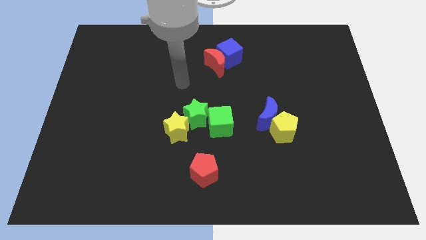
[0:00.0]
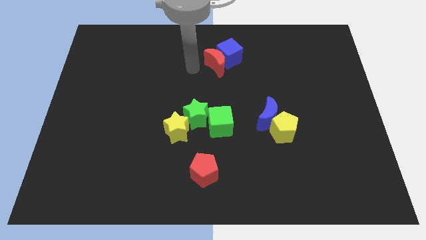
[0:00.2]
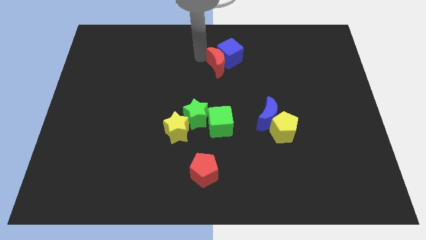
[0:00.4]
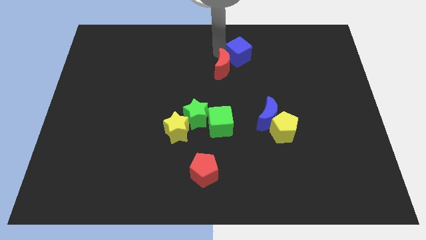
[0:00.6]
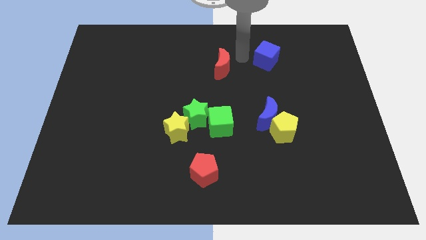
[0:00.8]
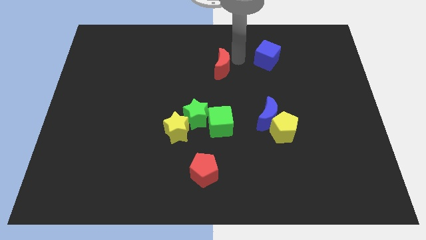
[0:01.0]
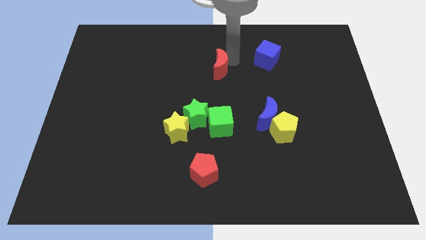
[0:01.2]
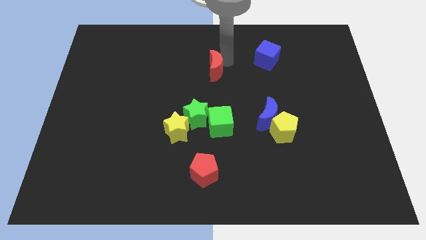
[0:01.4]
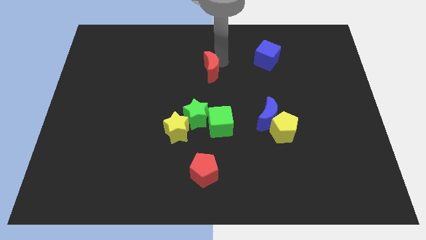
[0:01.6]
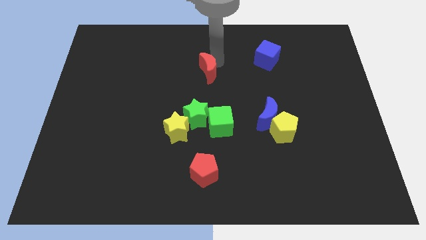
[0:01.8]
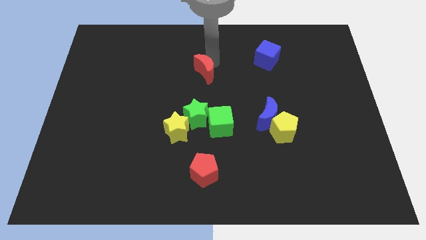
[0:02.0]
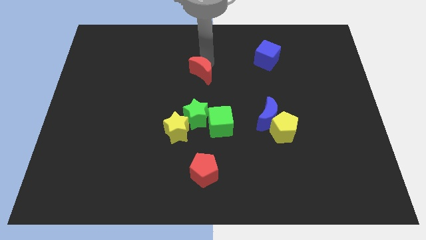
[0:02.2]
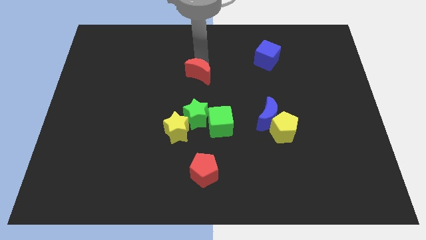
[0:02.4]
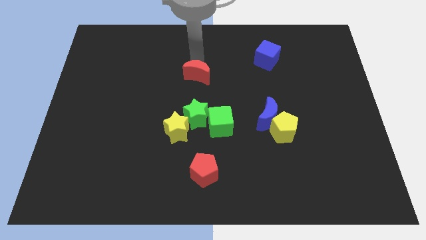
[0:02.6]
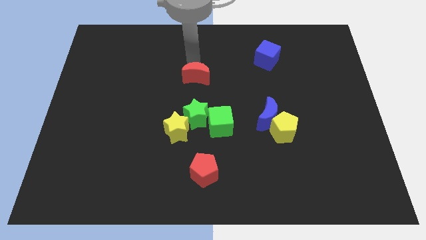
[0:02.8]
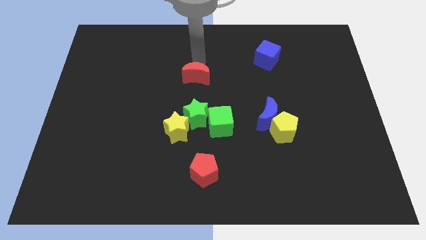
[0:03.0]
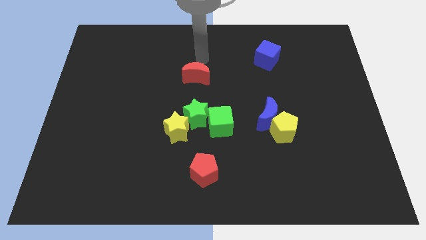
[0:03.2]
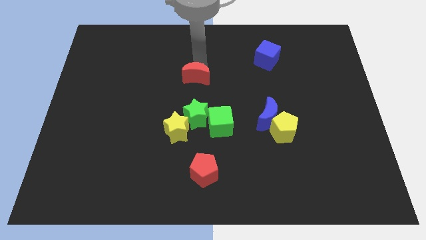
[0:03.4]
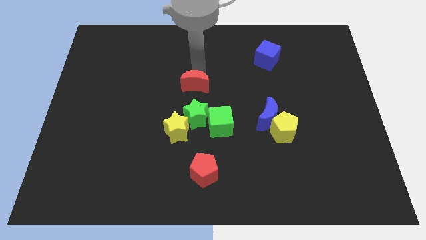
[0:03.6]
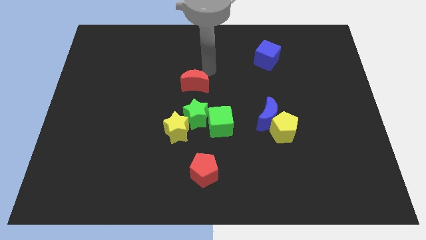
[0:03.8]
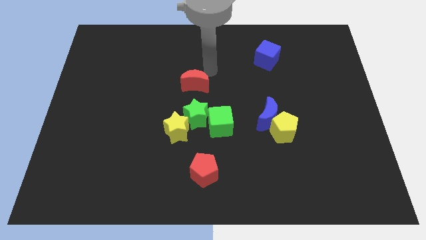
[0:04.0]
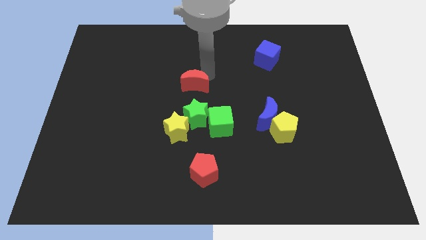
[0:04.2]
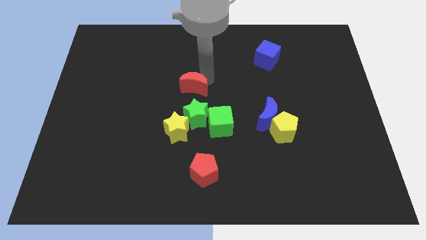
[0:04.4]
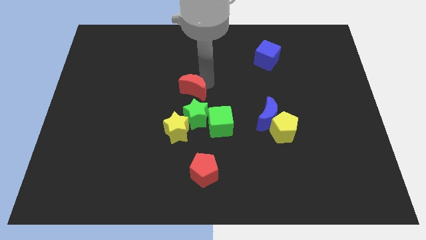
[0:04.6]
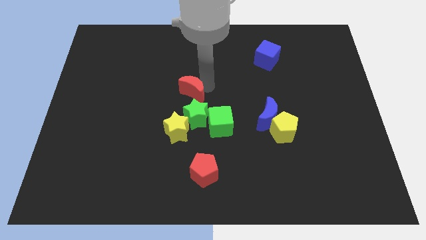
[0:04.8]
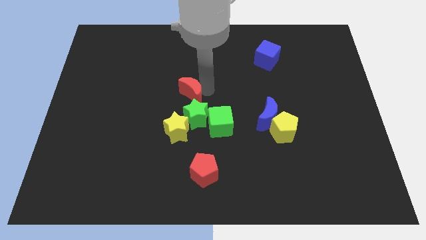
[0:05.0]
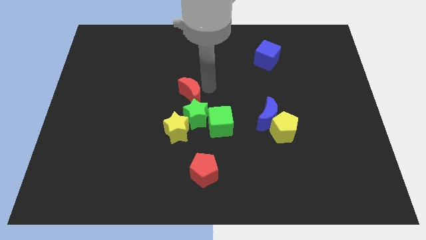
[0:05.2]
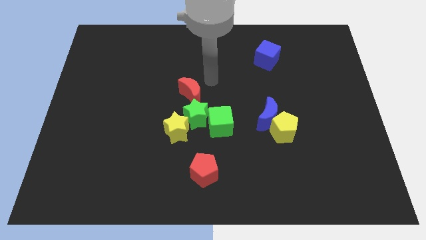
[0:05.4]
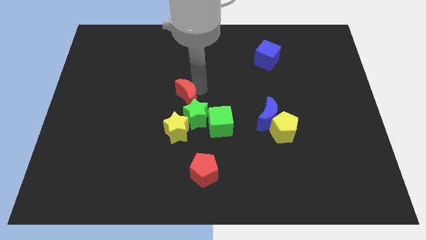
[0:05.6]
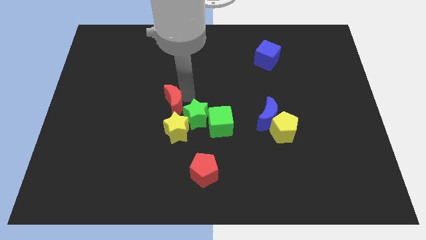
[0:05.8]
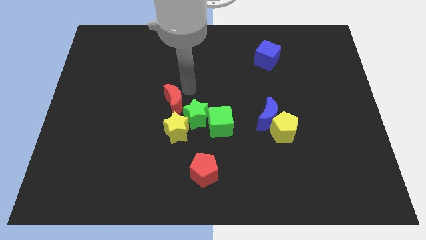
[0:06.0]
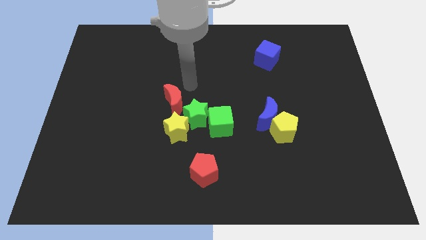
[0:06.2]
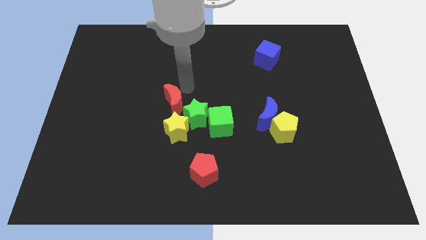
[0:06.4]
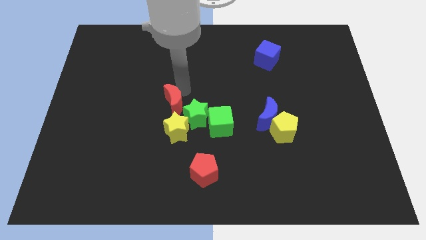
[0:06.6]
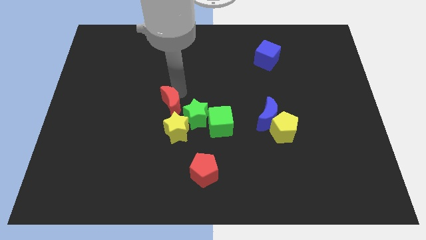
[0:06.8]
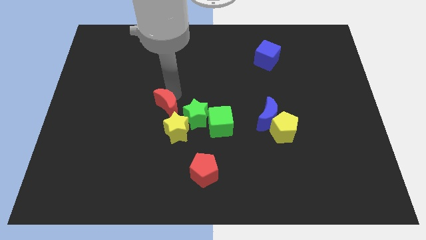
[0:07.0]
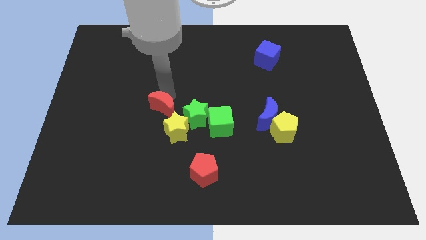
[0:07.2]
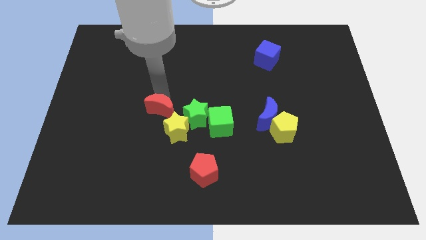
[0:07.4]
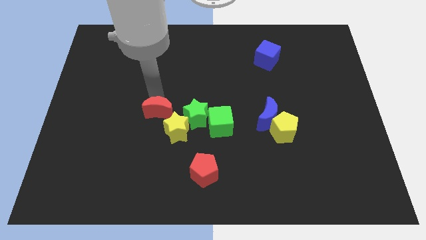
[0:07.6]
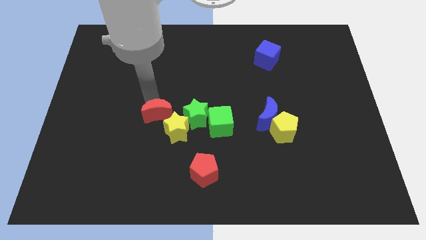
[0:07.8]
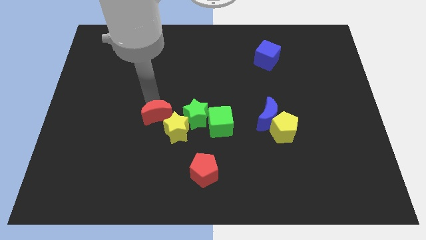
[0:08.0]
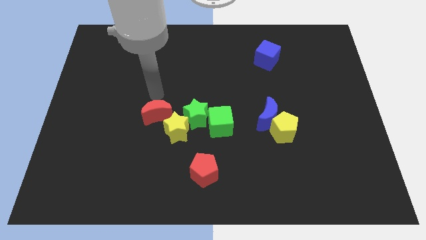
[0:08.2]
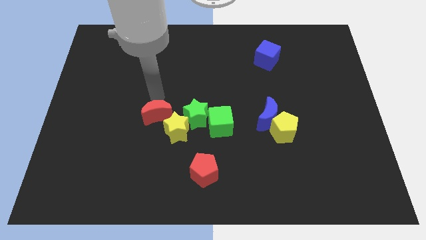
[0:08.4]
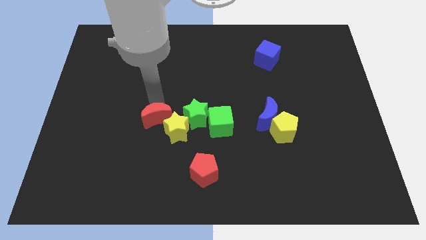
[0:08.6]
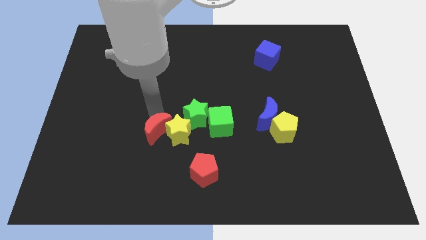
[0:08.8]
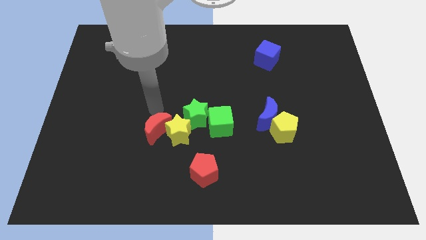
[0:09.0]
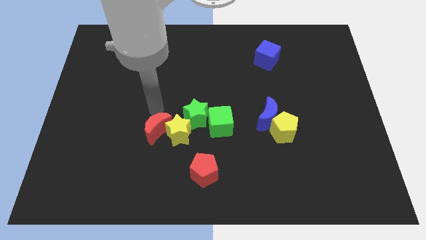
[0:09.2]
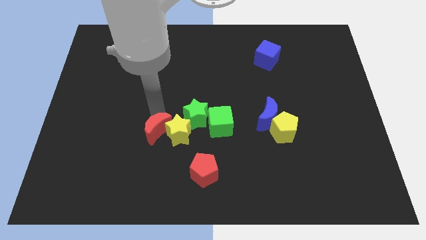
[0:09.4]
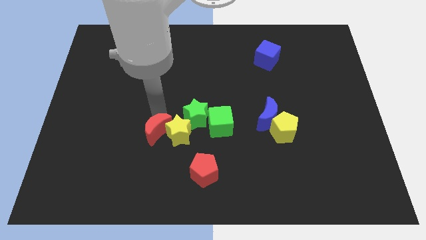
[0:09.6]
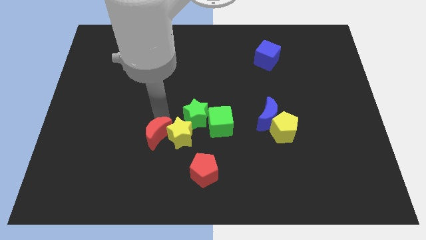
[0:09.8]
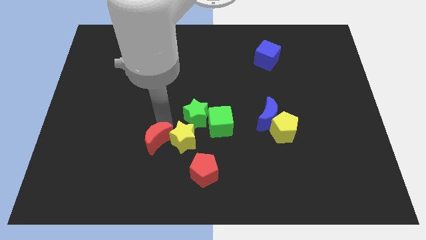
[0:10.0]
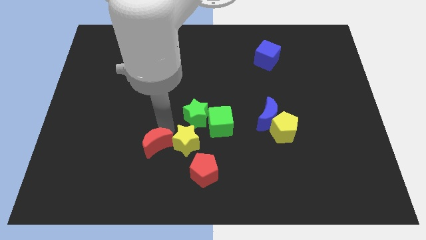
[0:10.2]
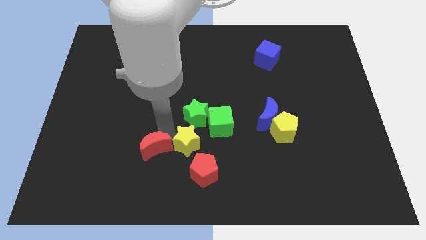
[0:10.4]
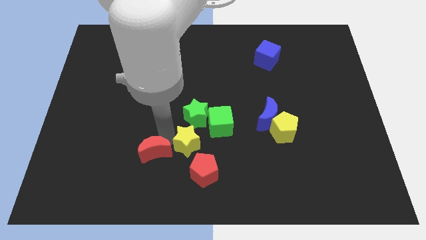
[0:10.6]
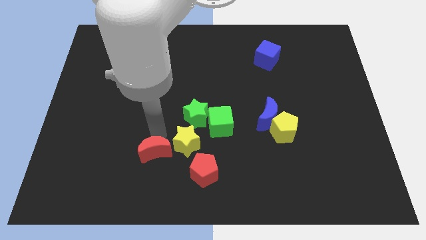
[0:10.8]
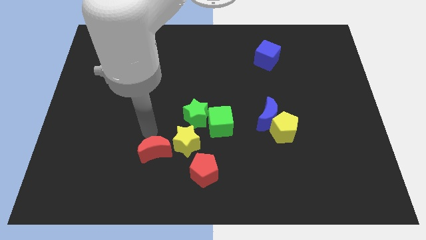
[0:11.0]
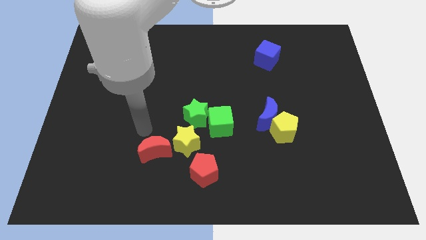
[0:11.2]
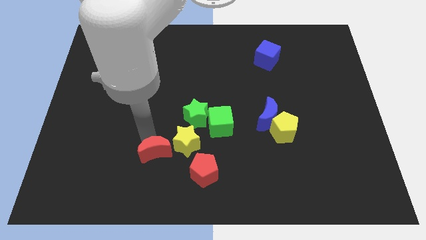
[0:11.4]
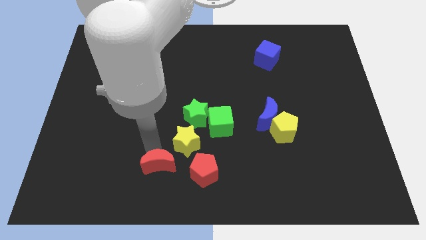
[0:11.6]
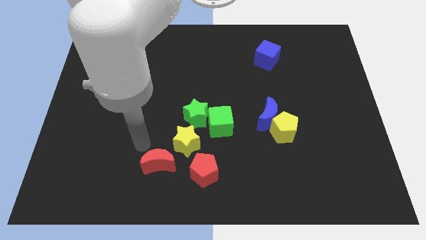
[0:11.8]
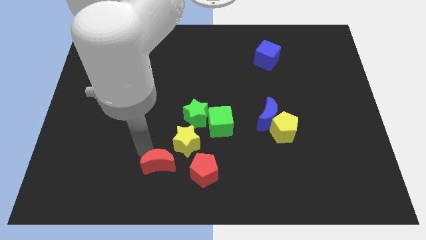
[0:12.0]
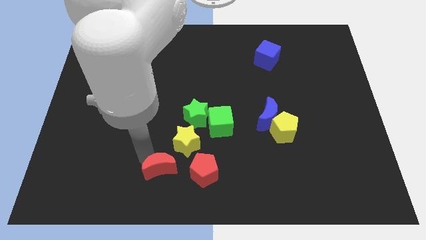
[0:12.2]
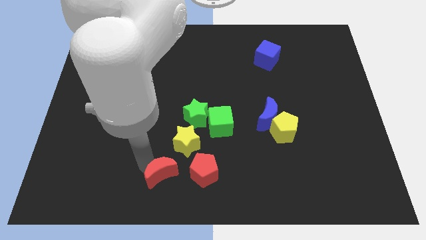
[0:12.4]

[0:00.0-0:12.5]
push the red moon to the bottom side

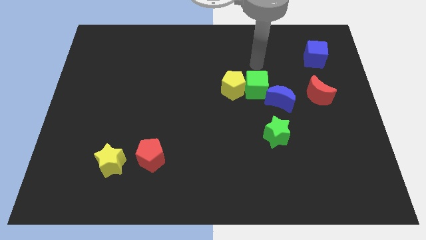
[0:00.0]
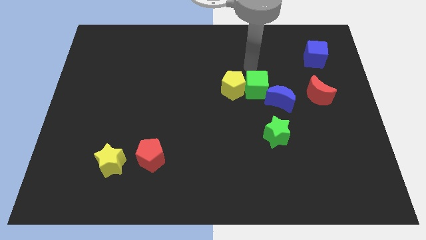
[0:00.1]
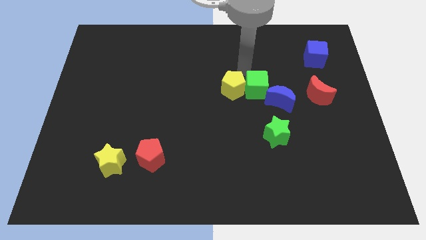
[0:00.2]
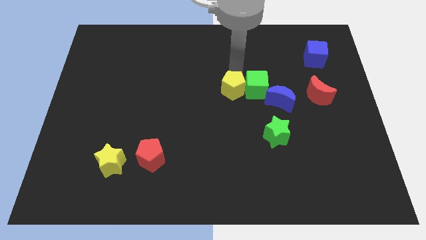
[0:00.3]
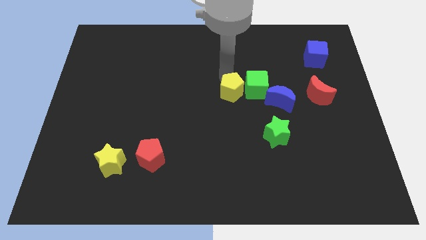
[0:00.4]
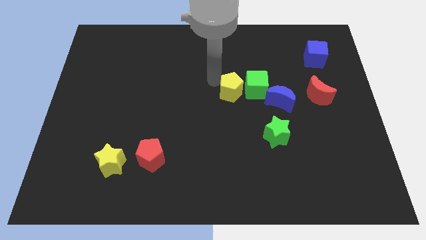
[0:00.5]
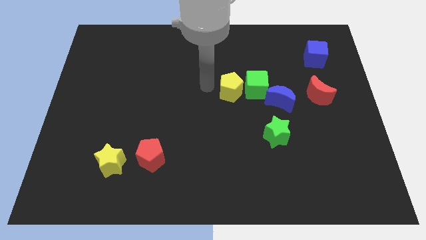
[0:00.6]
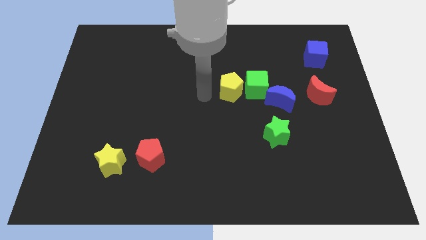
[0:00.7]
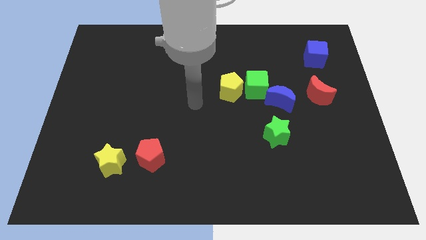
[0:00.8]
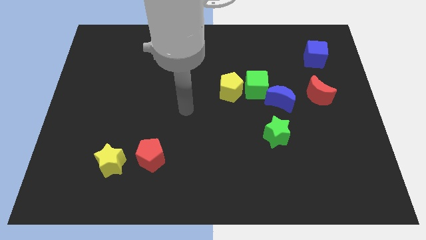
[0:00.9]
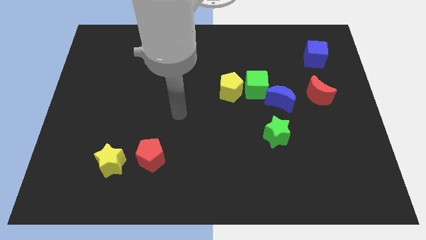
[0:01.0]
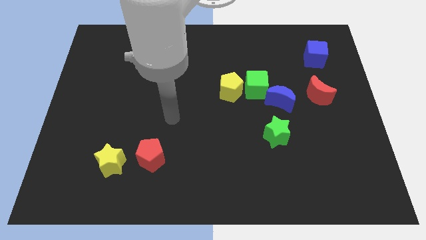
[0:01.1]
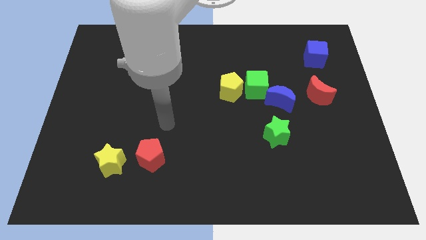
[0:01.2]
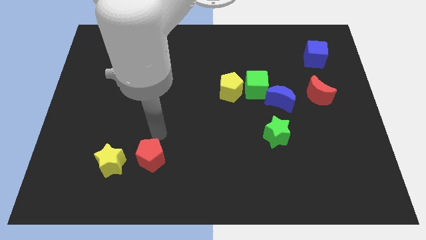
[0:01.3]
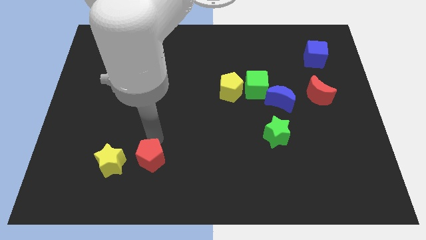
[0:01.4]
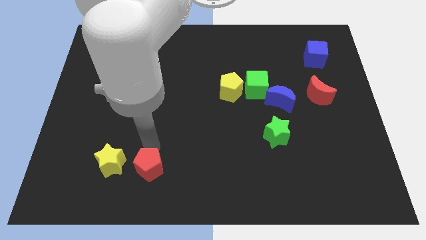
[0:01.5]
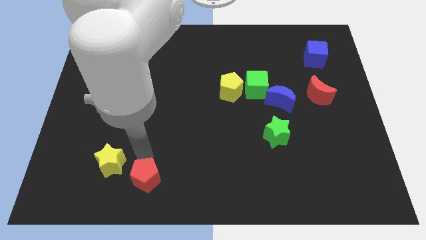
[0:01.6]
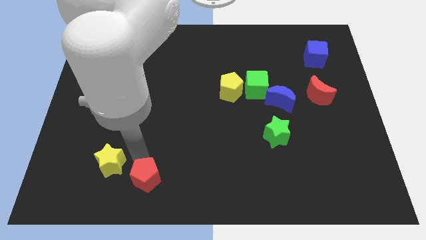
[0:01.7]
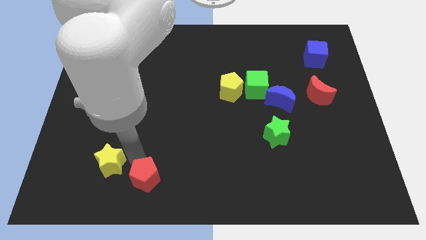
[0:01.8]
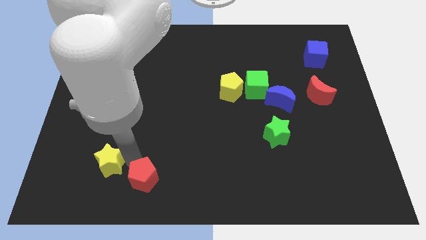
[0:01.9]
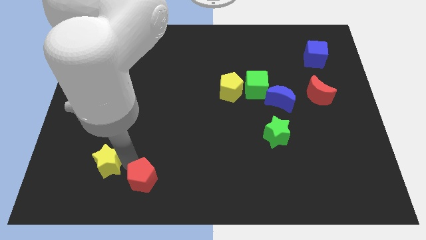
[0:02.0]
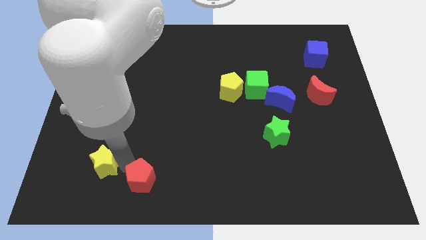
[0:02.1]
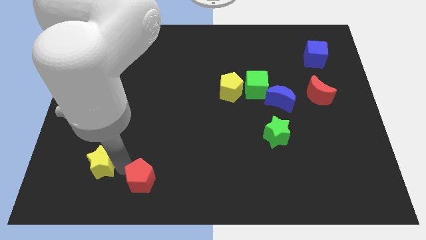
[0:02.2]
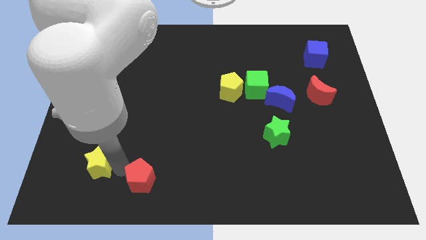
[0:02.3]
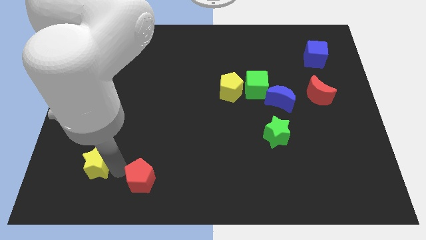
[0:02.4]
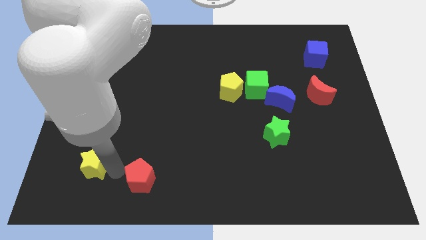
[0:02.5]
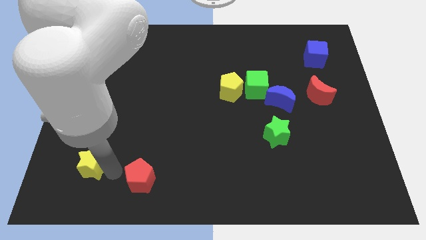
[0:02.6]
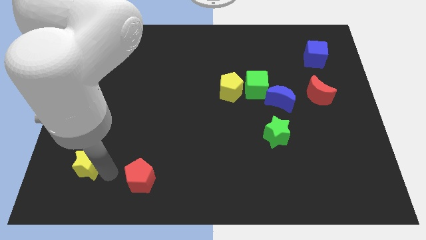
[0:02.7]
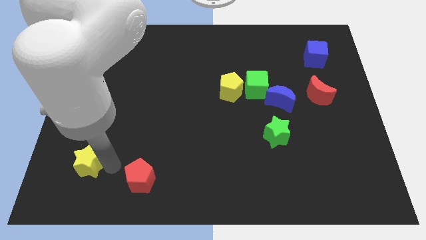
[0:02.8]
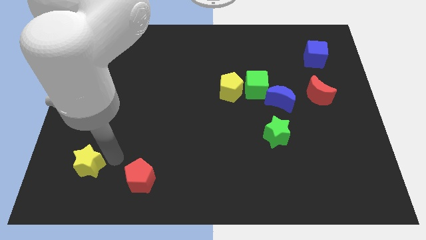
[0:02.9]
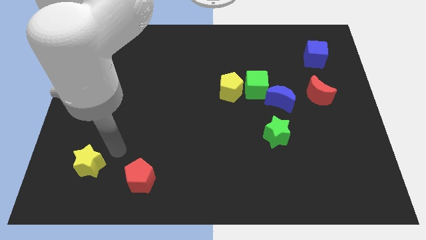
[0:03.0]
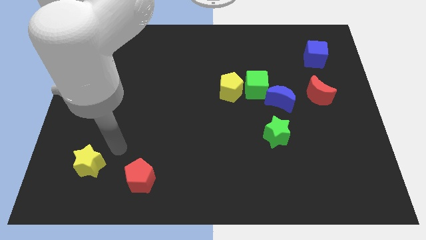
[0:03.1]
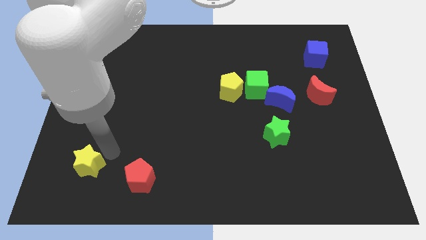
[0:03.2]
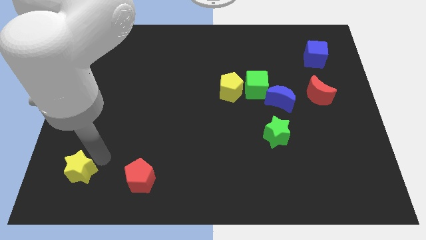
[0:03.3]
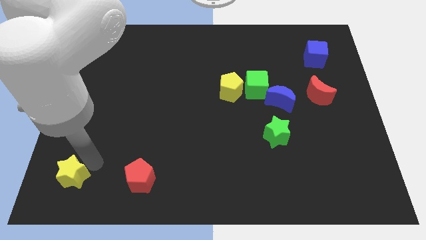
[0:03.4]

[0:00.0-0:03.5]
put the yellow star to the bottom left
